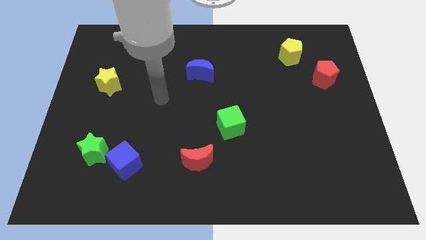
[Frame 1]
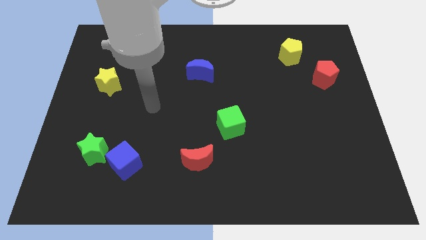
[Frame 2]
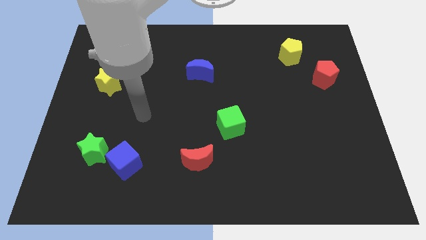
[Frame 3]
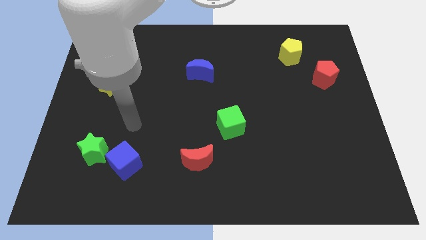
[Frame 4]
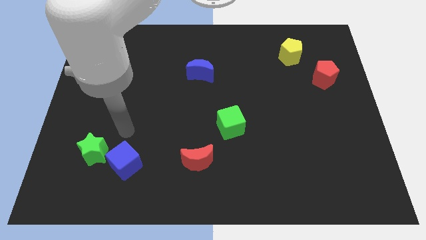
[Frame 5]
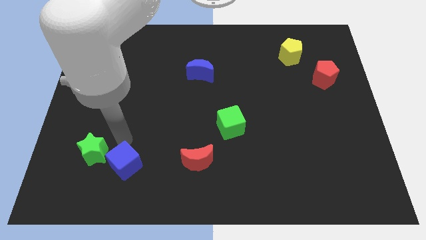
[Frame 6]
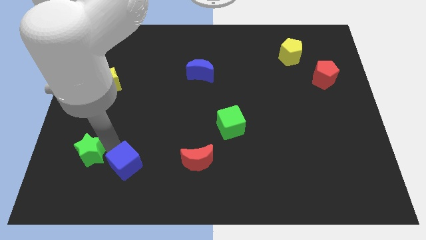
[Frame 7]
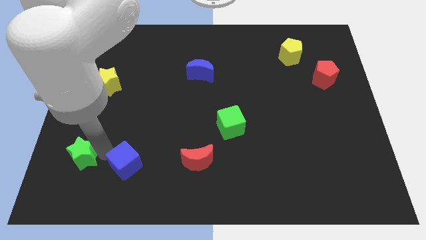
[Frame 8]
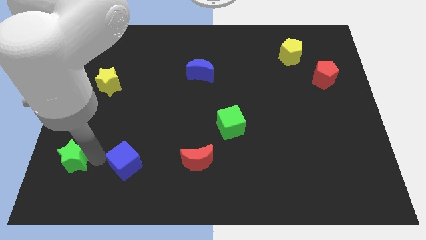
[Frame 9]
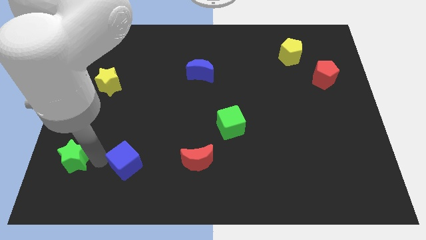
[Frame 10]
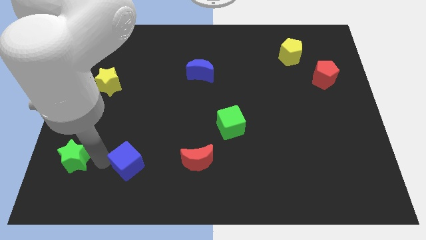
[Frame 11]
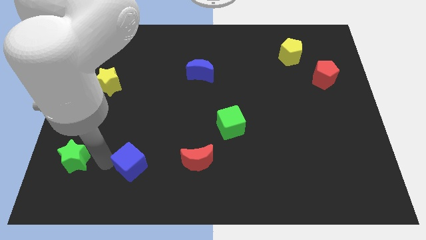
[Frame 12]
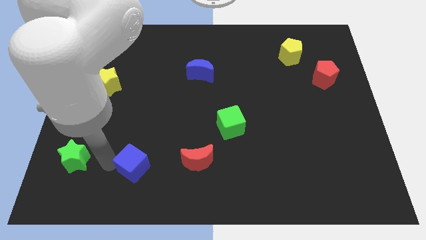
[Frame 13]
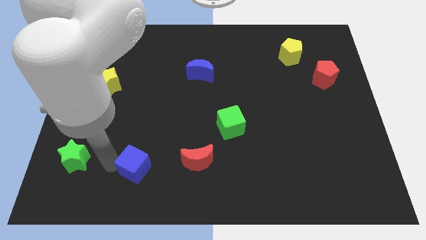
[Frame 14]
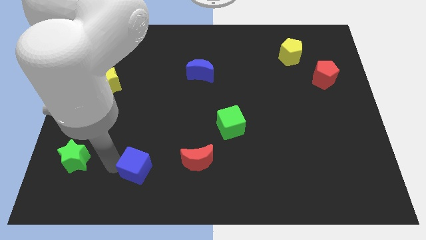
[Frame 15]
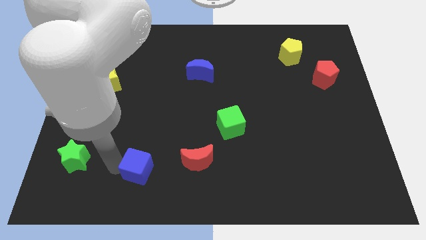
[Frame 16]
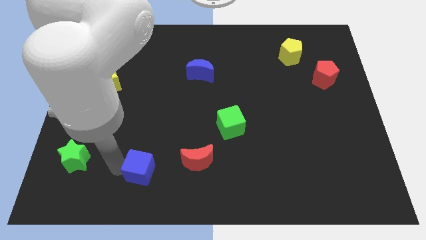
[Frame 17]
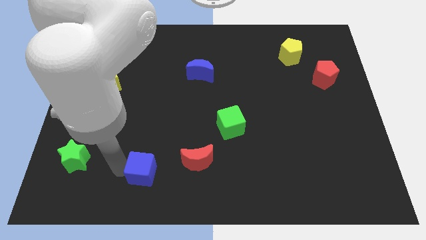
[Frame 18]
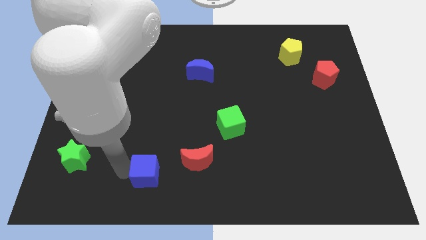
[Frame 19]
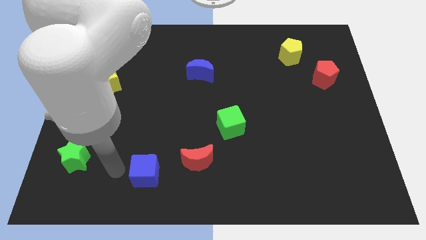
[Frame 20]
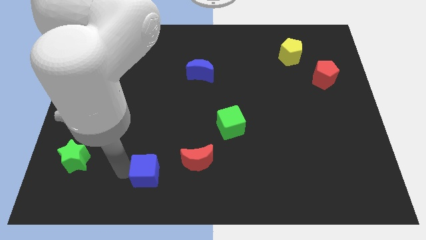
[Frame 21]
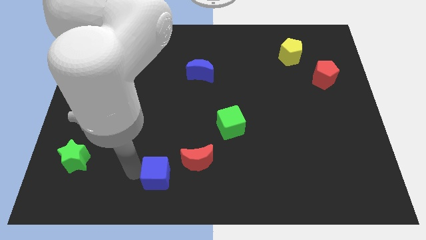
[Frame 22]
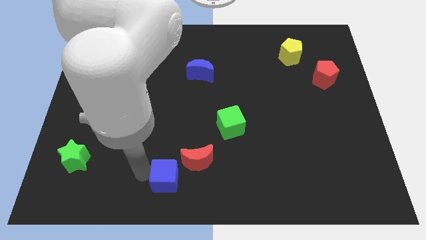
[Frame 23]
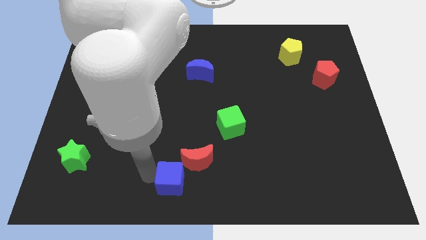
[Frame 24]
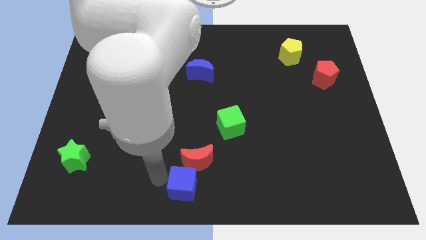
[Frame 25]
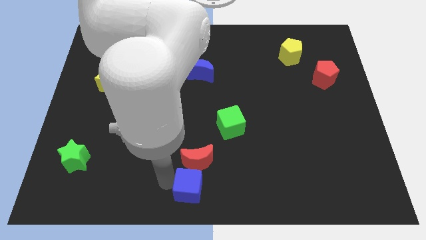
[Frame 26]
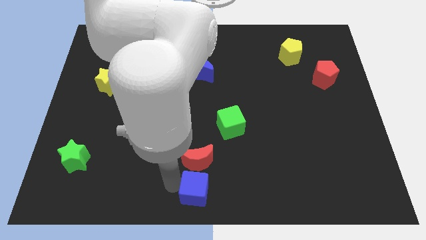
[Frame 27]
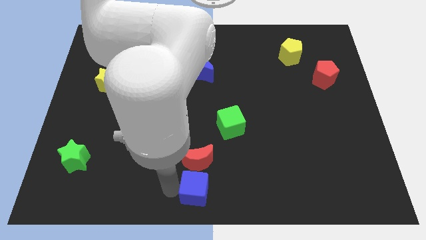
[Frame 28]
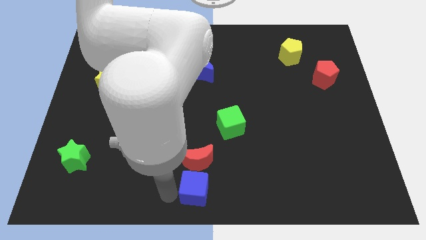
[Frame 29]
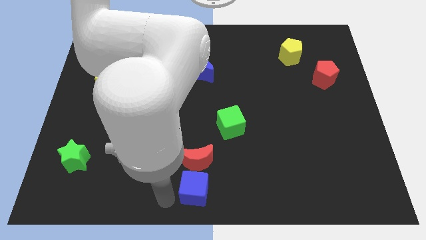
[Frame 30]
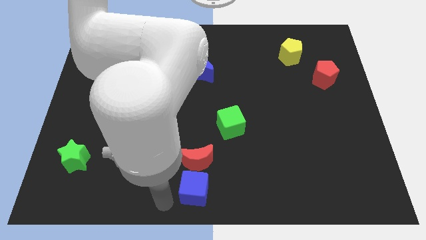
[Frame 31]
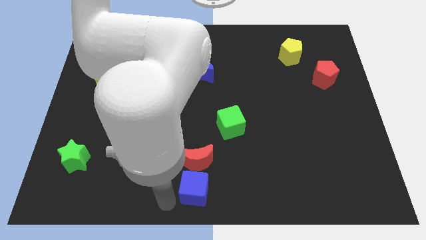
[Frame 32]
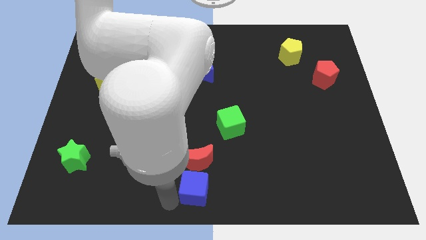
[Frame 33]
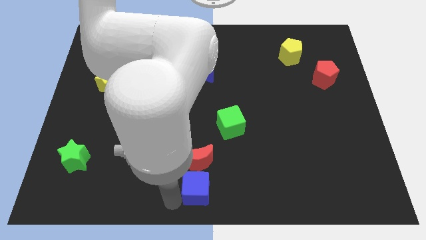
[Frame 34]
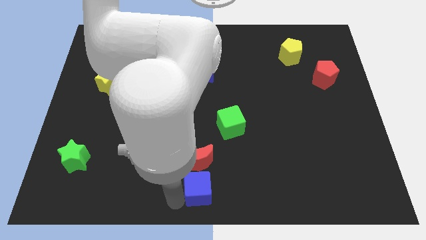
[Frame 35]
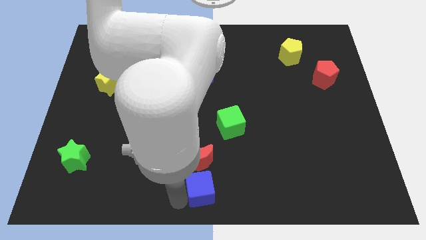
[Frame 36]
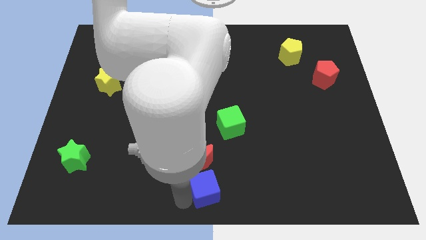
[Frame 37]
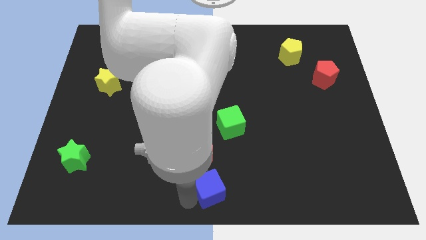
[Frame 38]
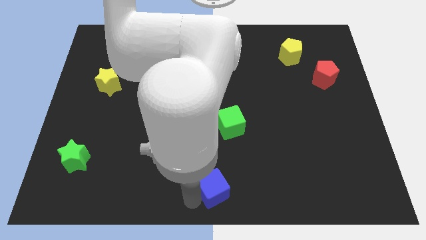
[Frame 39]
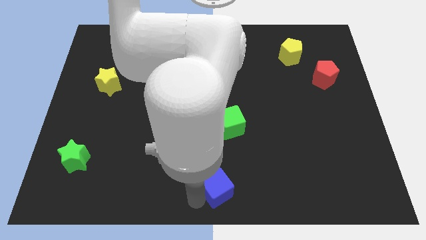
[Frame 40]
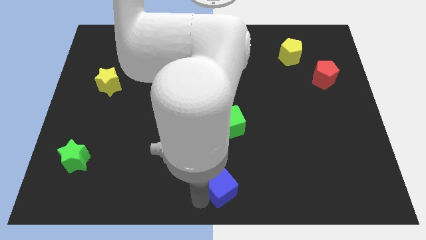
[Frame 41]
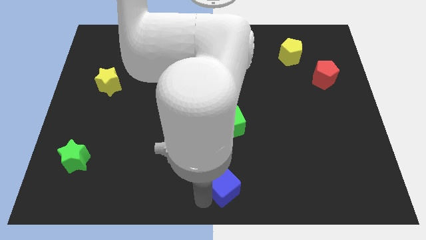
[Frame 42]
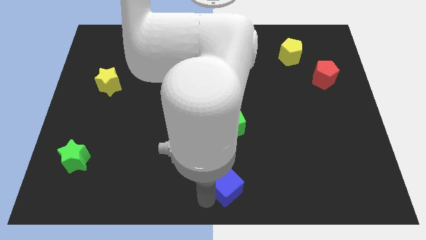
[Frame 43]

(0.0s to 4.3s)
slide the blue cube right

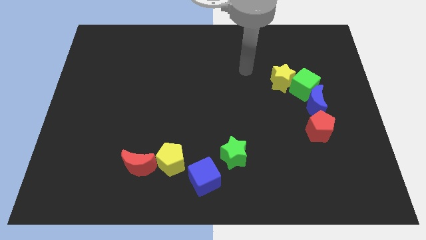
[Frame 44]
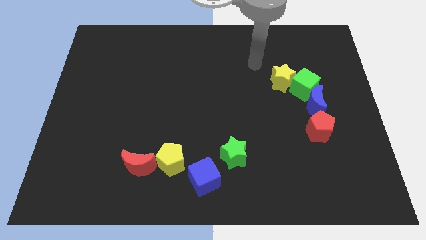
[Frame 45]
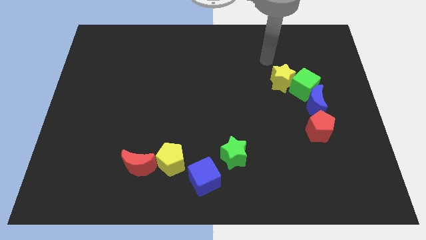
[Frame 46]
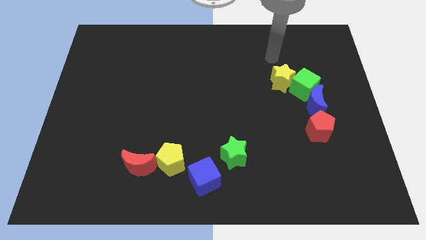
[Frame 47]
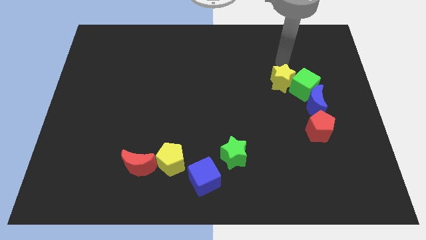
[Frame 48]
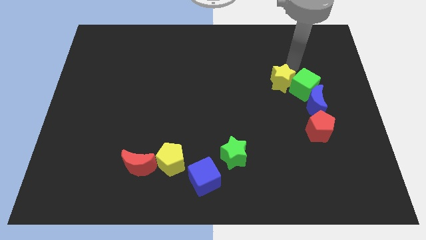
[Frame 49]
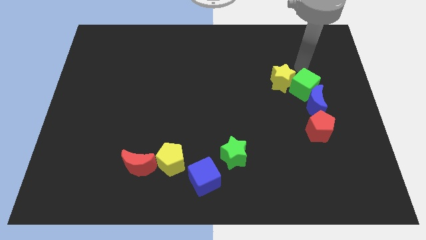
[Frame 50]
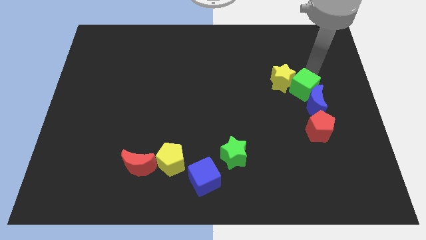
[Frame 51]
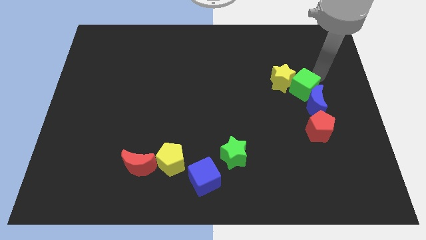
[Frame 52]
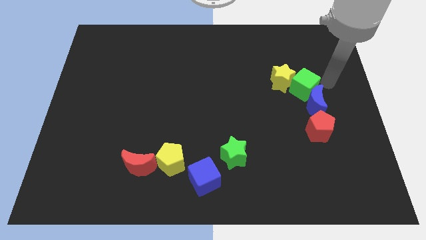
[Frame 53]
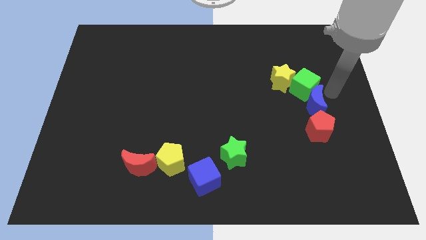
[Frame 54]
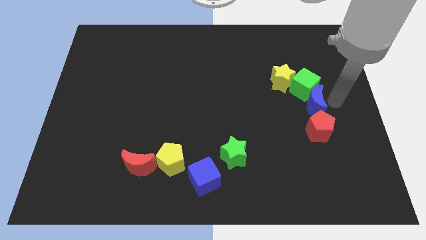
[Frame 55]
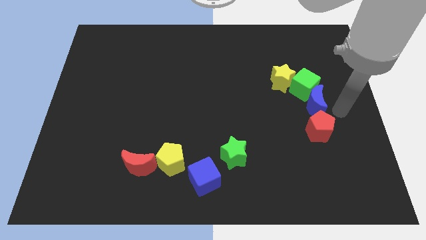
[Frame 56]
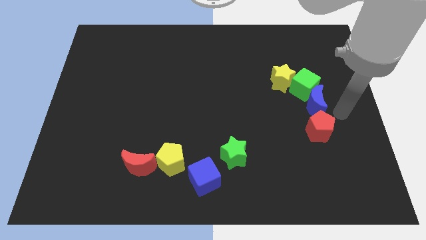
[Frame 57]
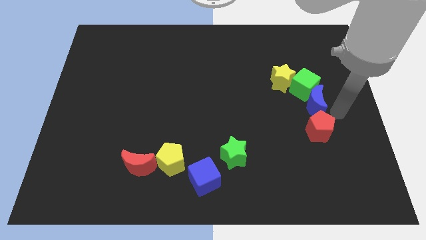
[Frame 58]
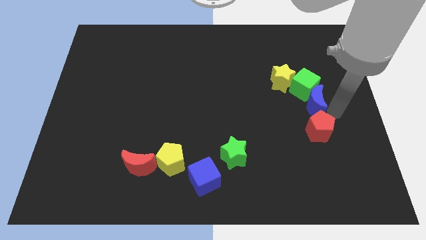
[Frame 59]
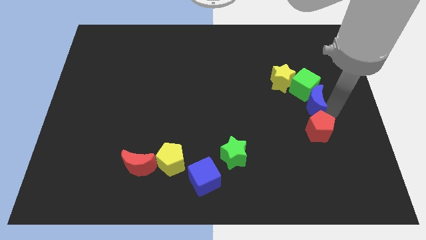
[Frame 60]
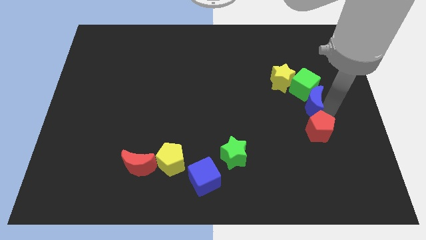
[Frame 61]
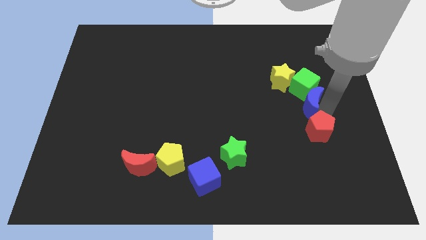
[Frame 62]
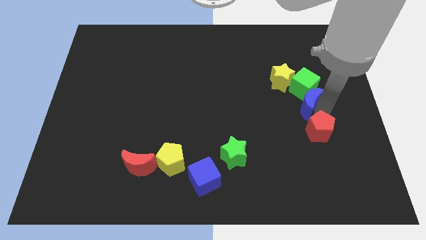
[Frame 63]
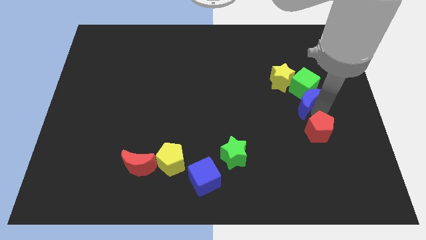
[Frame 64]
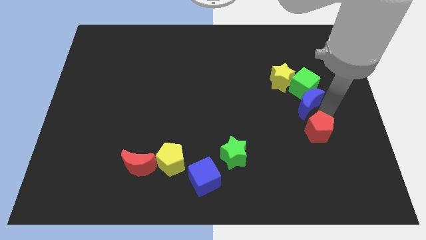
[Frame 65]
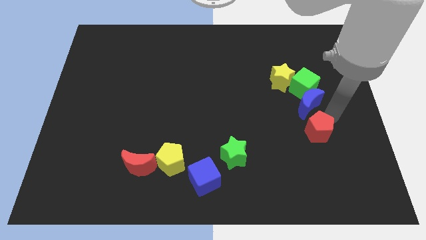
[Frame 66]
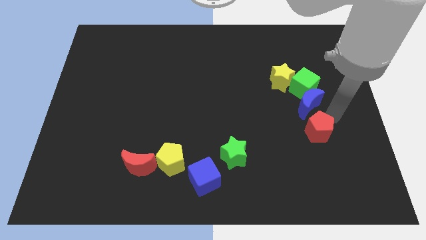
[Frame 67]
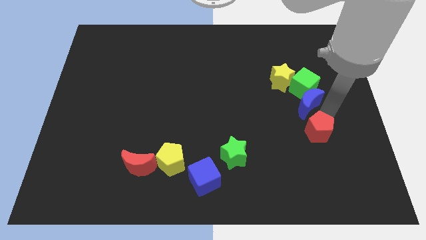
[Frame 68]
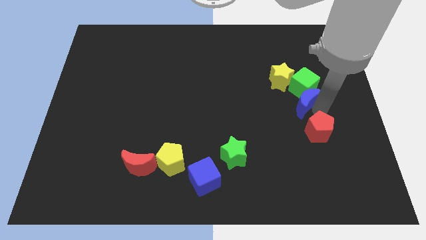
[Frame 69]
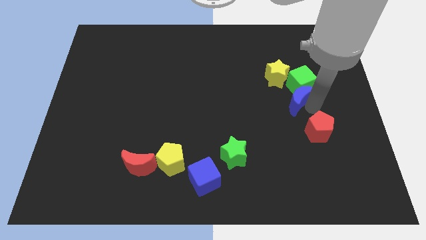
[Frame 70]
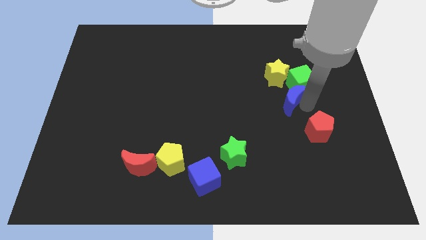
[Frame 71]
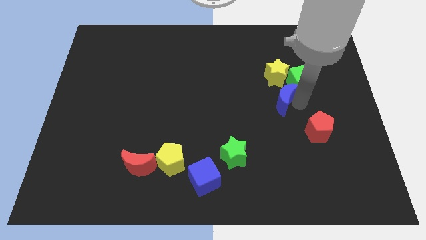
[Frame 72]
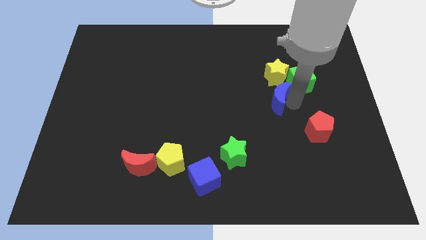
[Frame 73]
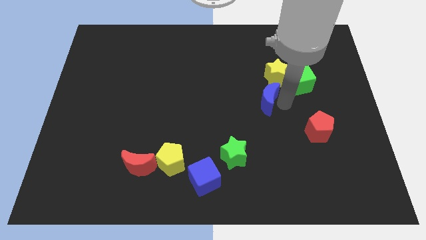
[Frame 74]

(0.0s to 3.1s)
slightly push the blue moon up and left diagonally

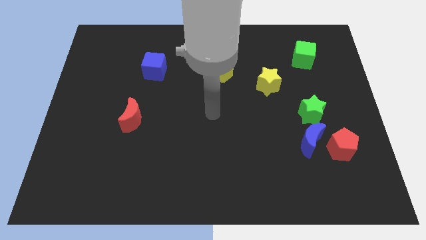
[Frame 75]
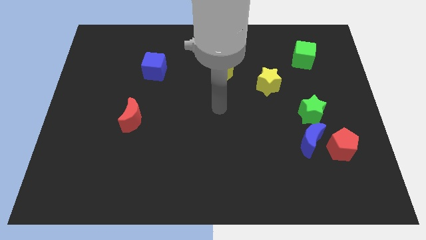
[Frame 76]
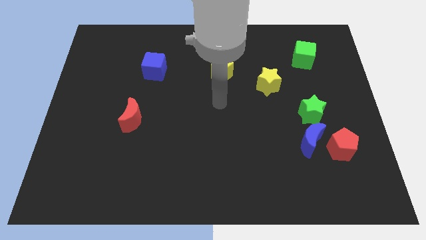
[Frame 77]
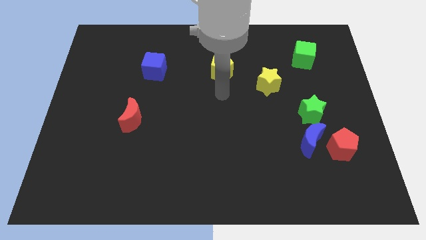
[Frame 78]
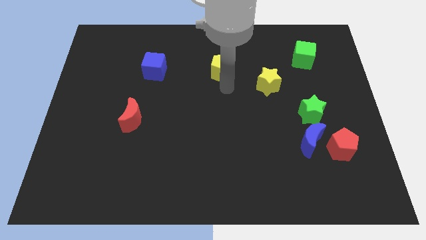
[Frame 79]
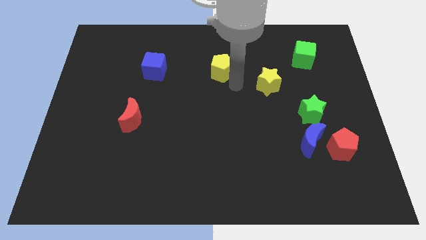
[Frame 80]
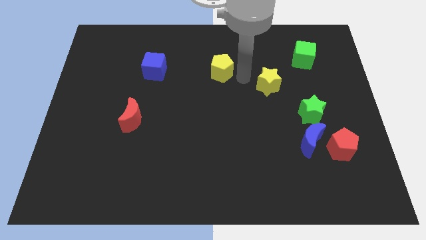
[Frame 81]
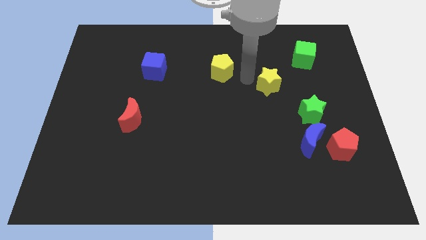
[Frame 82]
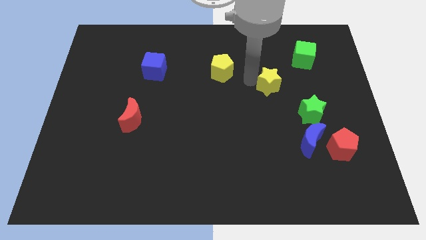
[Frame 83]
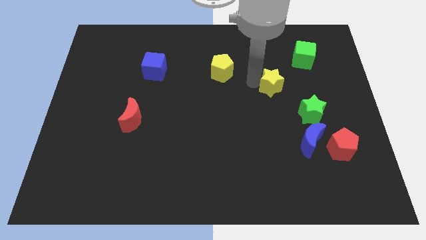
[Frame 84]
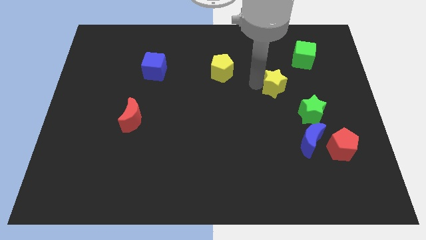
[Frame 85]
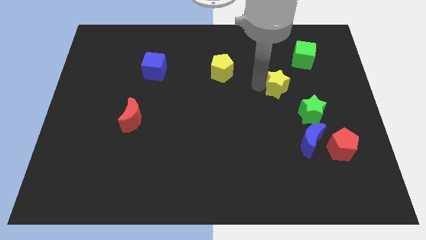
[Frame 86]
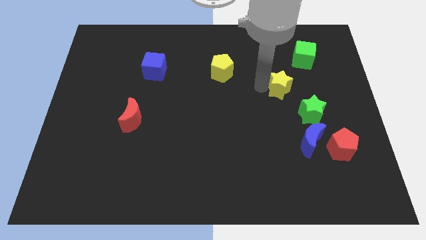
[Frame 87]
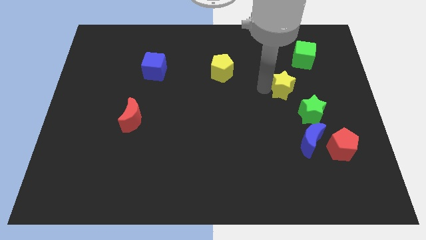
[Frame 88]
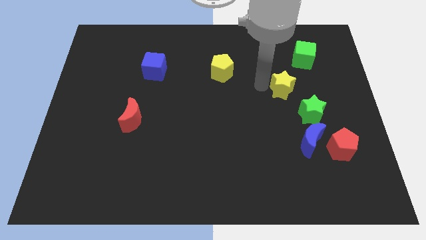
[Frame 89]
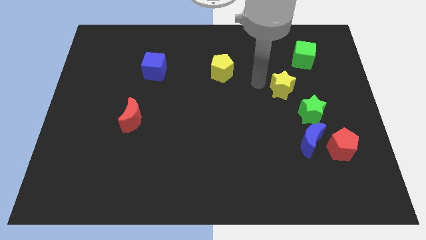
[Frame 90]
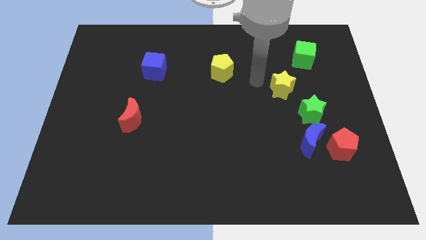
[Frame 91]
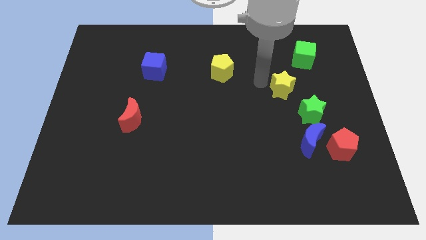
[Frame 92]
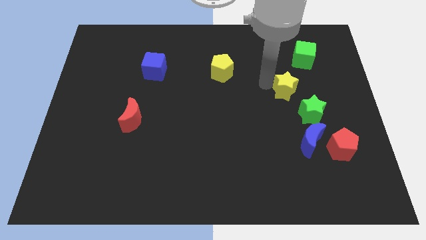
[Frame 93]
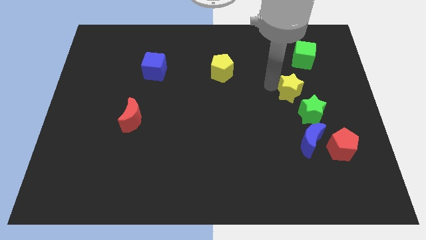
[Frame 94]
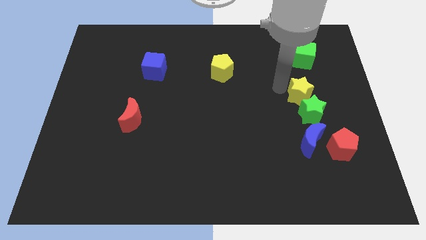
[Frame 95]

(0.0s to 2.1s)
slightly push the yellow star down and right diagonally
